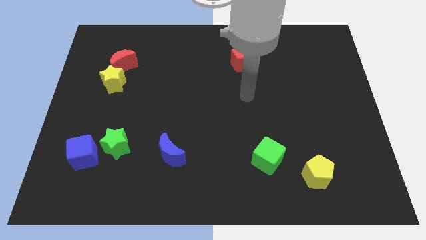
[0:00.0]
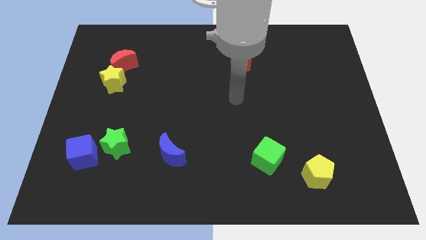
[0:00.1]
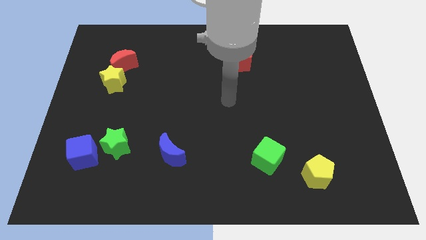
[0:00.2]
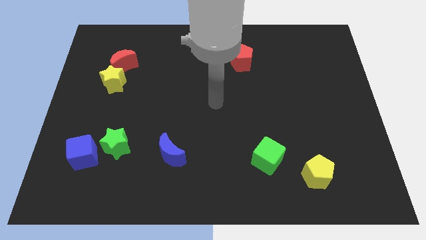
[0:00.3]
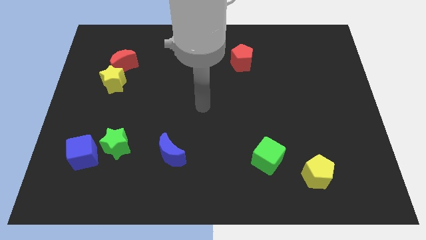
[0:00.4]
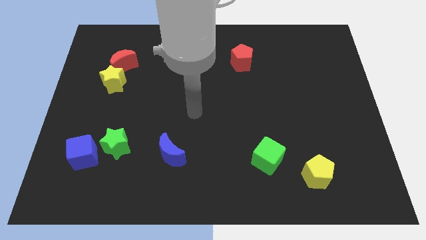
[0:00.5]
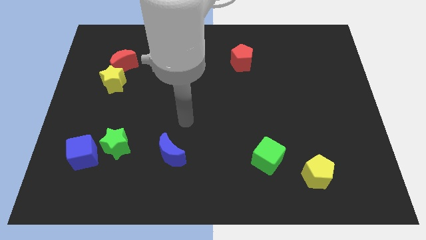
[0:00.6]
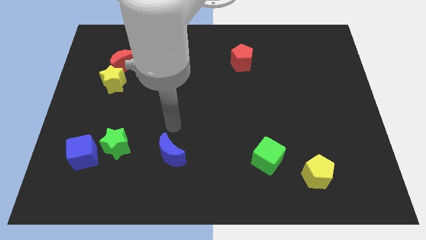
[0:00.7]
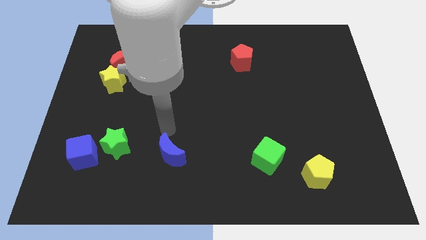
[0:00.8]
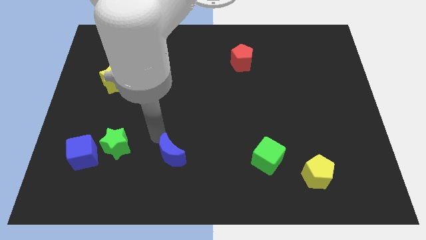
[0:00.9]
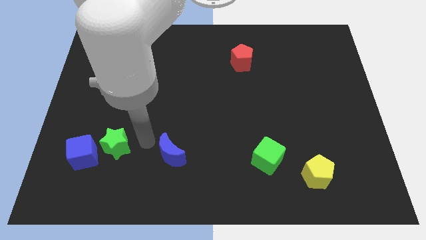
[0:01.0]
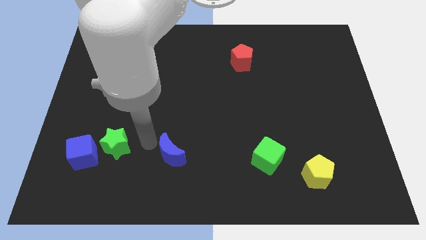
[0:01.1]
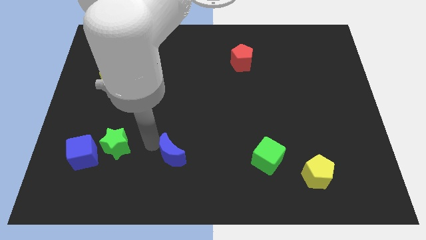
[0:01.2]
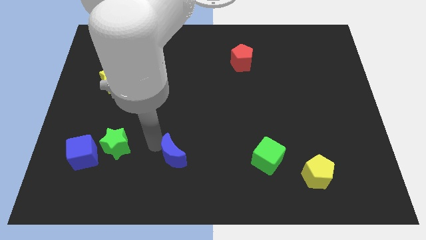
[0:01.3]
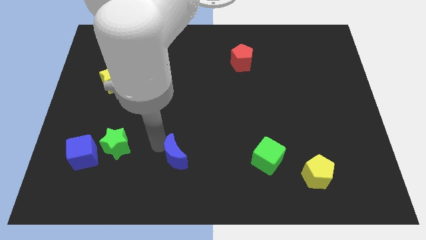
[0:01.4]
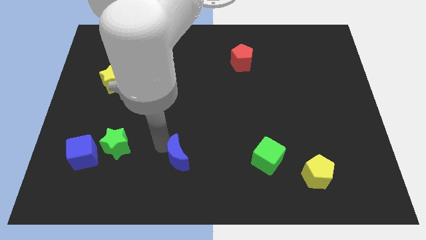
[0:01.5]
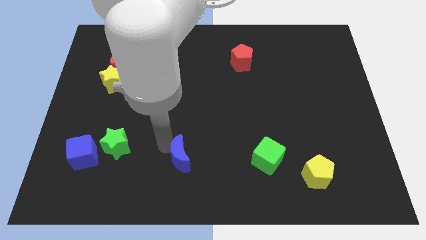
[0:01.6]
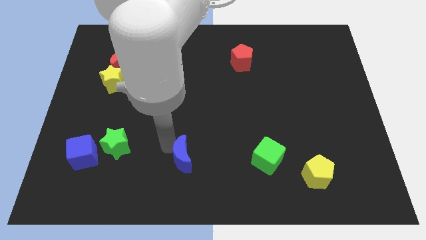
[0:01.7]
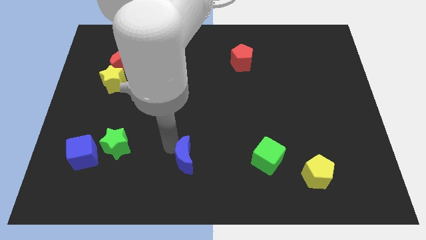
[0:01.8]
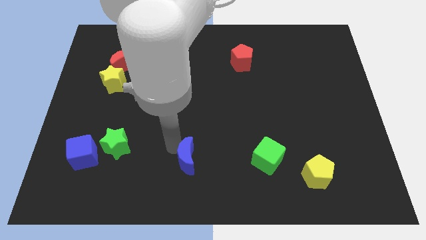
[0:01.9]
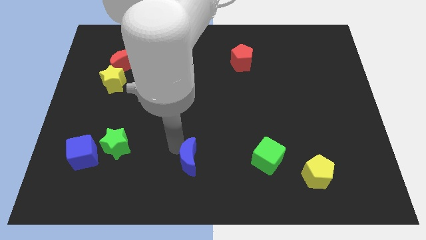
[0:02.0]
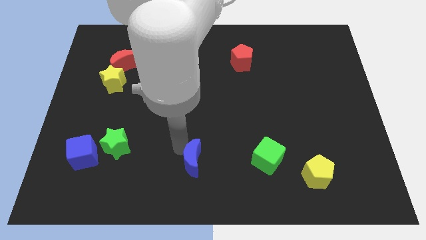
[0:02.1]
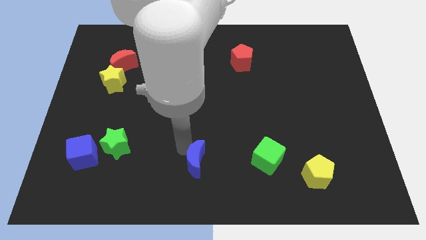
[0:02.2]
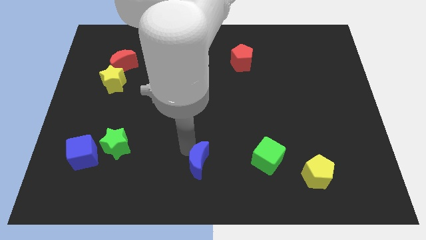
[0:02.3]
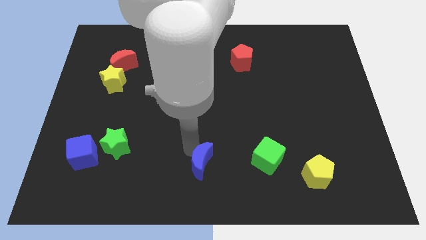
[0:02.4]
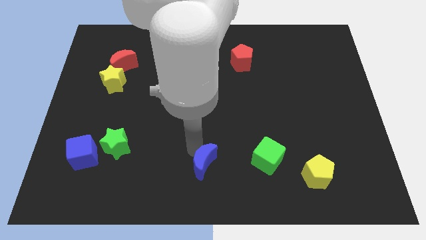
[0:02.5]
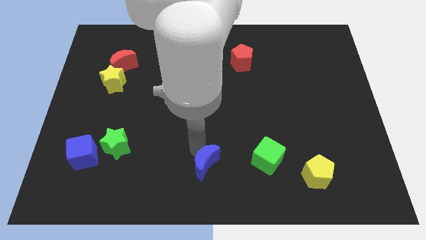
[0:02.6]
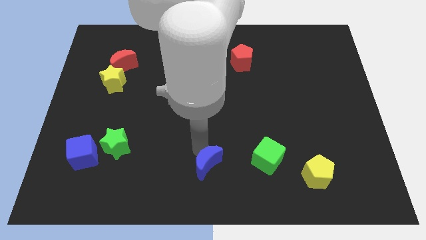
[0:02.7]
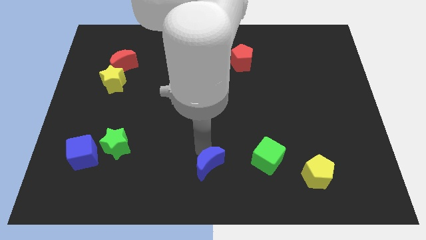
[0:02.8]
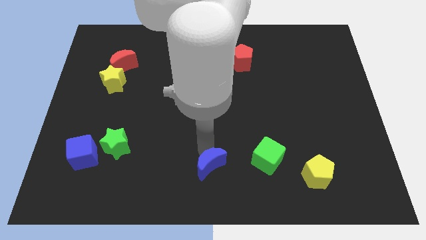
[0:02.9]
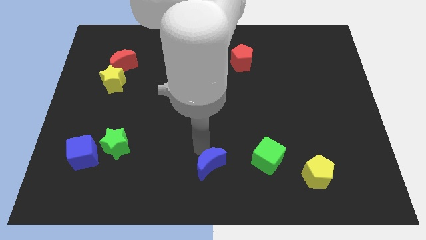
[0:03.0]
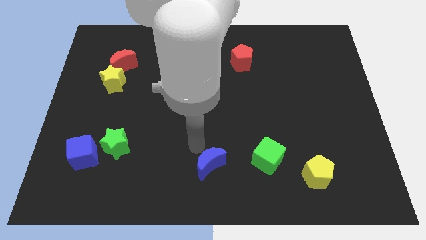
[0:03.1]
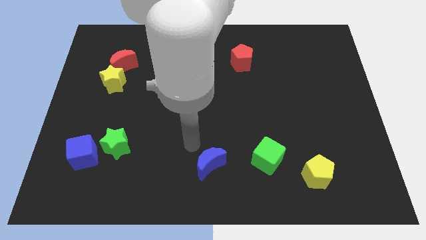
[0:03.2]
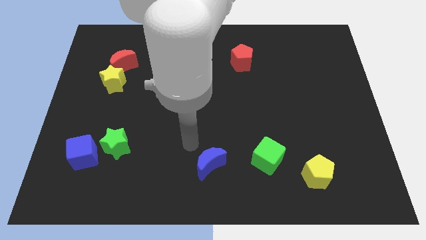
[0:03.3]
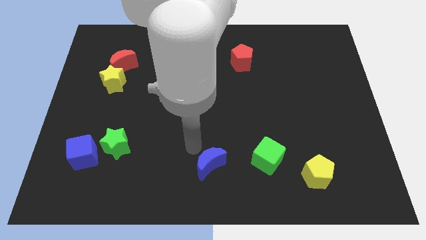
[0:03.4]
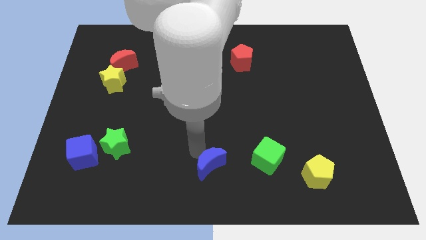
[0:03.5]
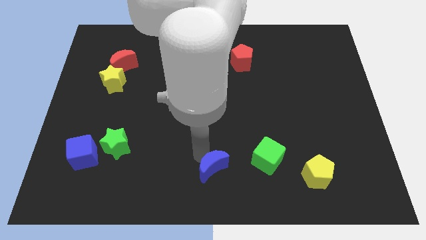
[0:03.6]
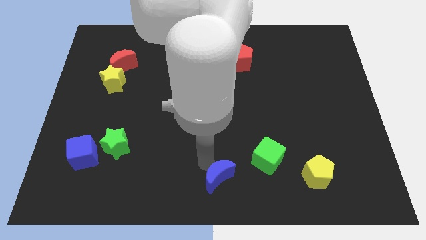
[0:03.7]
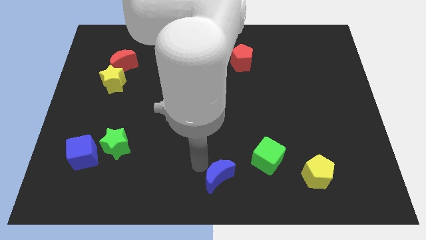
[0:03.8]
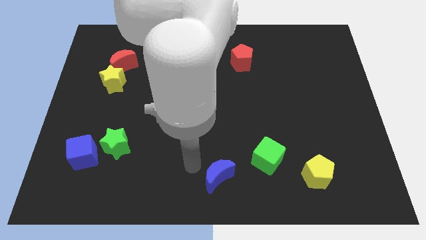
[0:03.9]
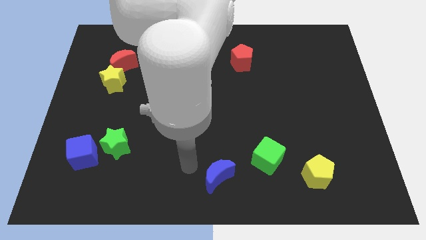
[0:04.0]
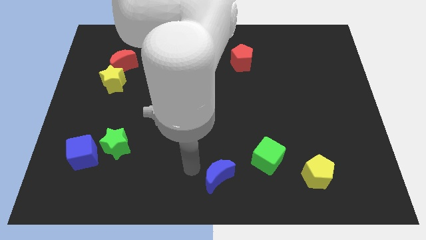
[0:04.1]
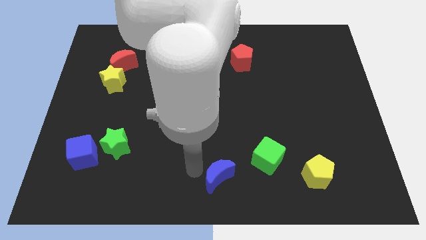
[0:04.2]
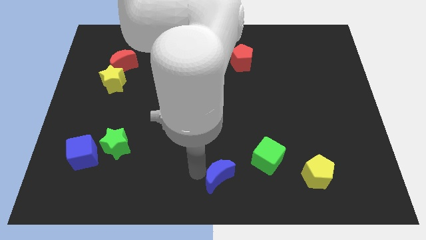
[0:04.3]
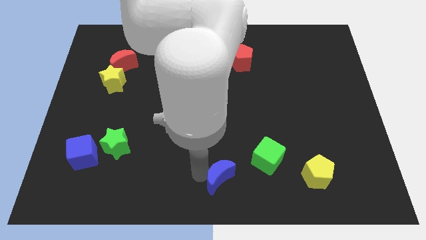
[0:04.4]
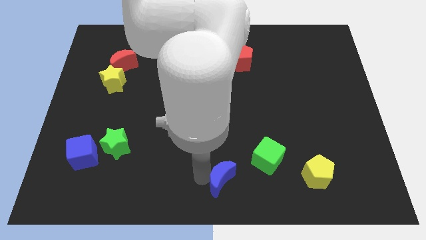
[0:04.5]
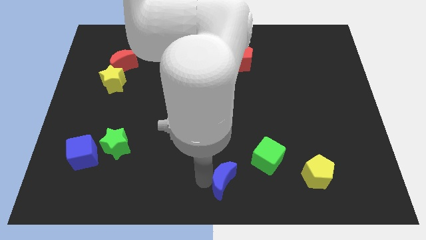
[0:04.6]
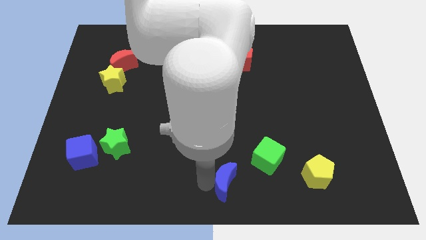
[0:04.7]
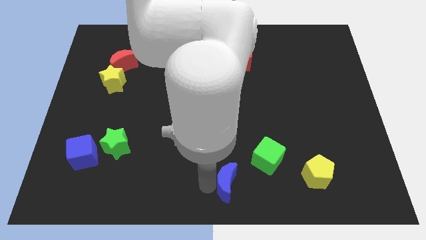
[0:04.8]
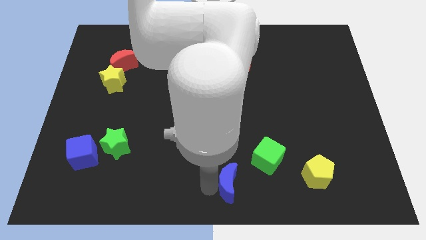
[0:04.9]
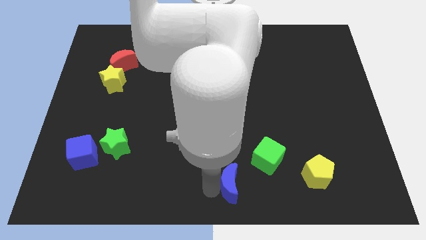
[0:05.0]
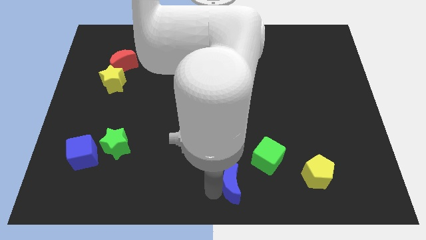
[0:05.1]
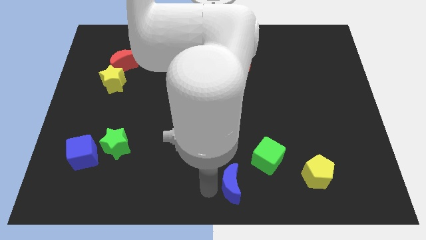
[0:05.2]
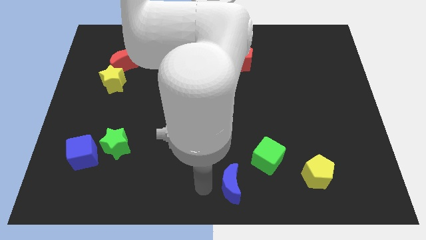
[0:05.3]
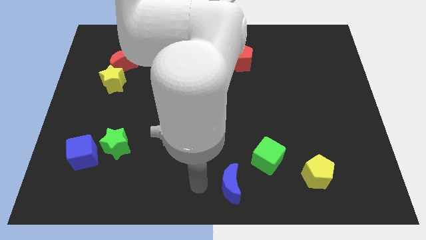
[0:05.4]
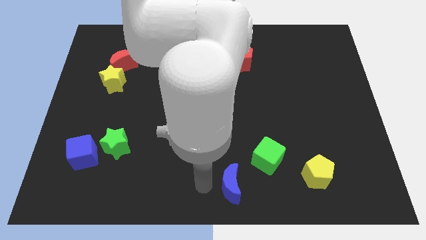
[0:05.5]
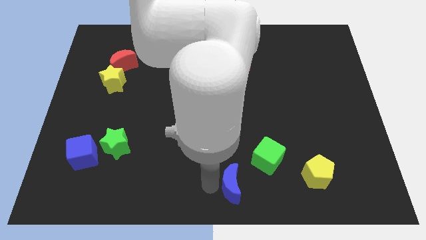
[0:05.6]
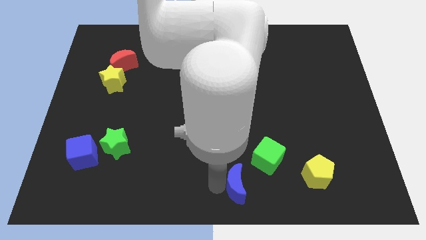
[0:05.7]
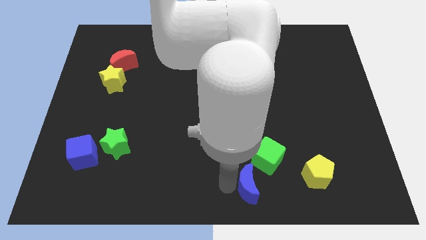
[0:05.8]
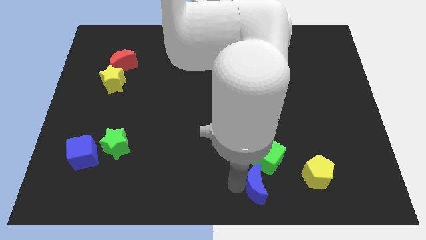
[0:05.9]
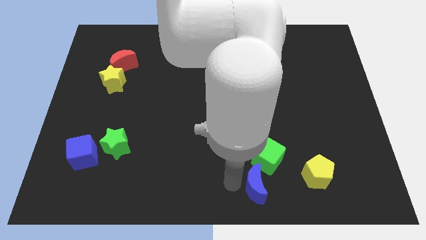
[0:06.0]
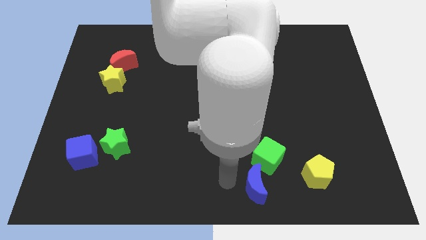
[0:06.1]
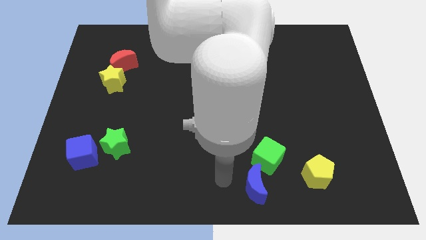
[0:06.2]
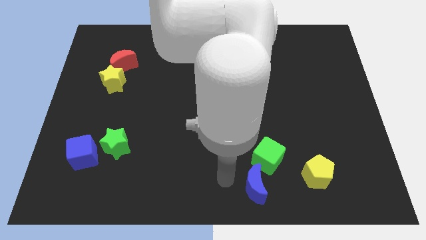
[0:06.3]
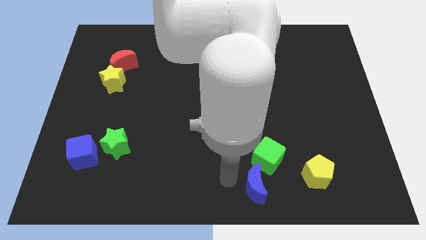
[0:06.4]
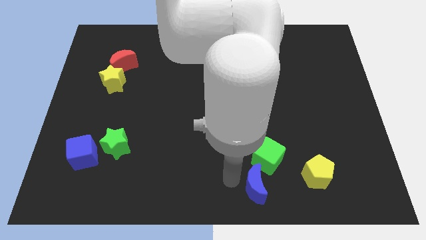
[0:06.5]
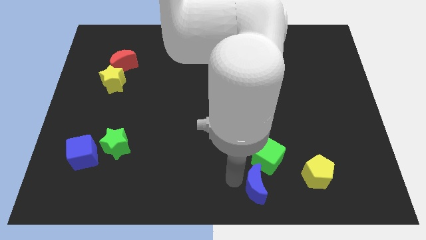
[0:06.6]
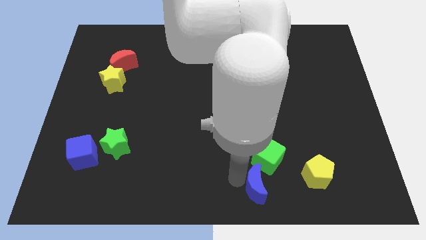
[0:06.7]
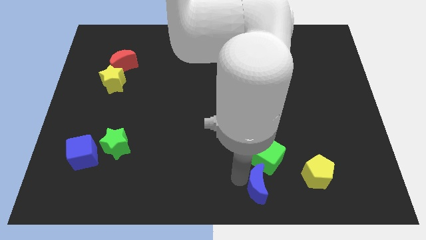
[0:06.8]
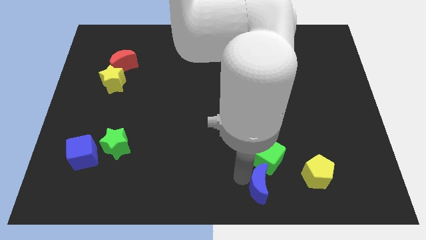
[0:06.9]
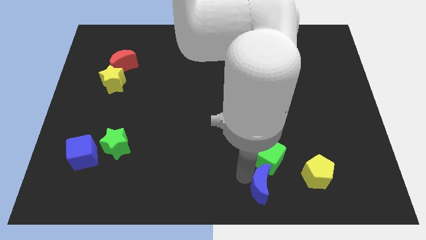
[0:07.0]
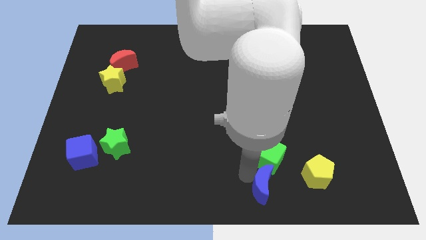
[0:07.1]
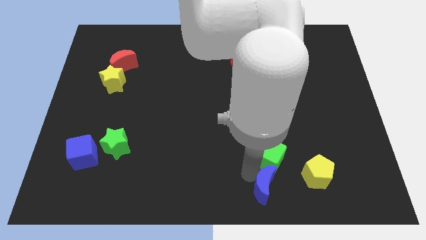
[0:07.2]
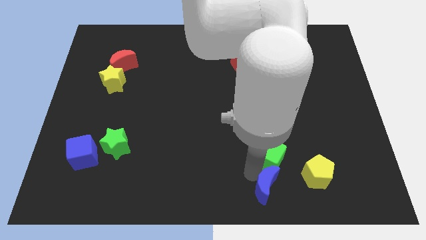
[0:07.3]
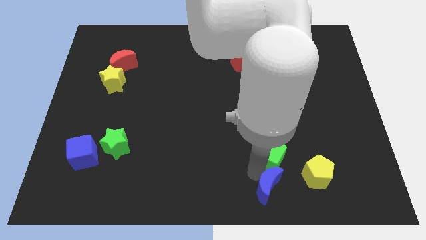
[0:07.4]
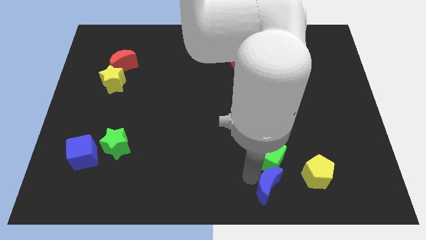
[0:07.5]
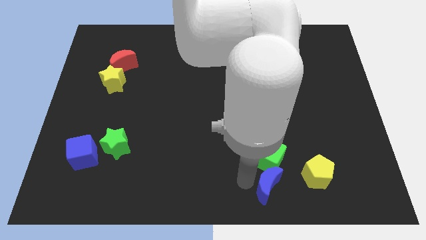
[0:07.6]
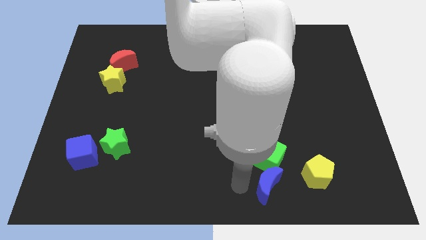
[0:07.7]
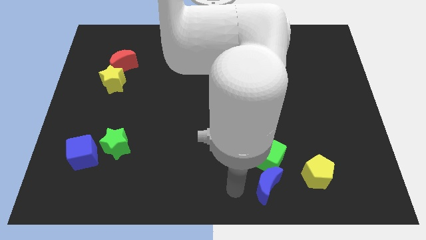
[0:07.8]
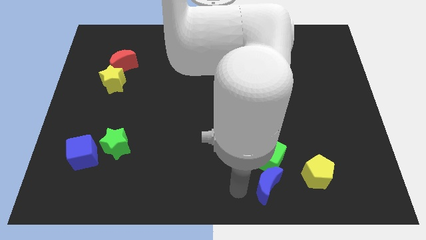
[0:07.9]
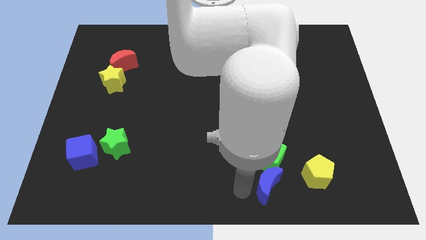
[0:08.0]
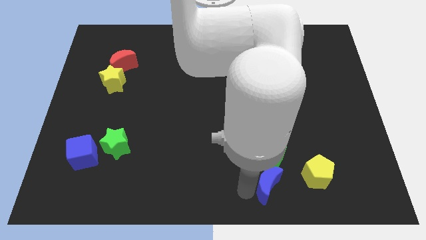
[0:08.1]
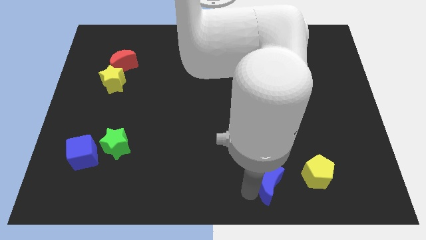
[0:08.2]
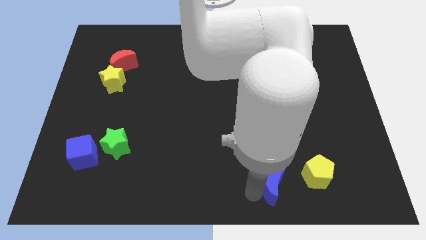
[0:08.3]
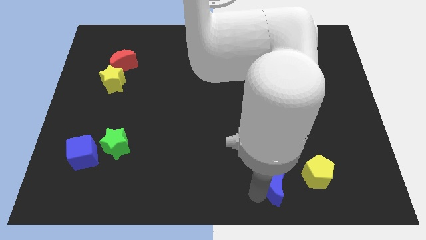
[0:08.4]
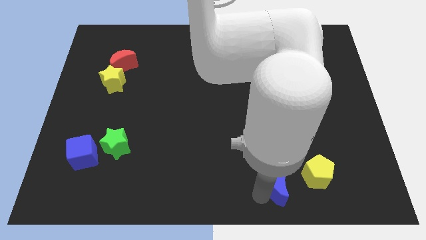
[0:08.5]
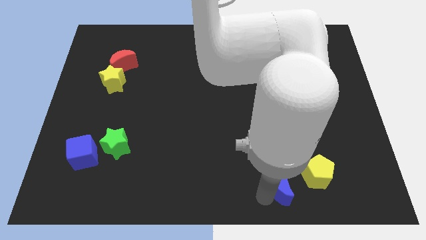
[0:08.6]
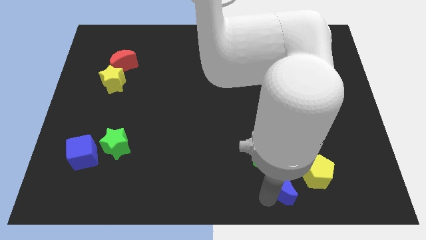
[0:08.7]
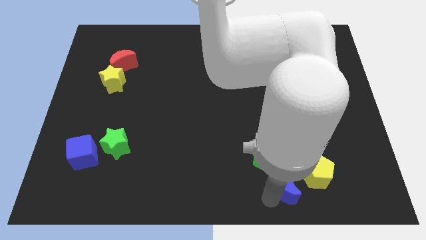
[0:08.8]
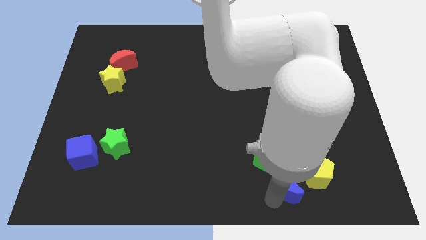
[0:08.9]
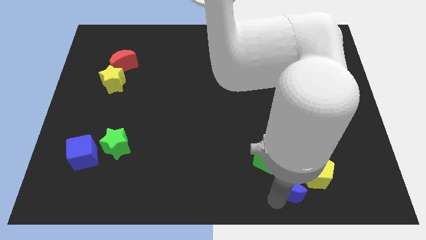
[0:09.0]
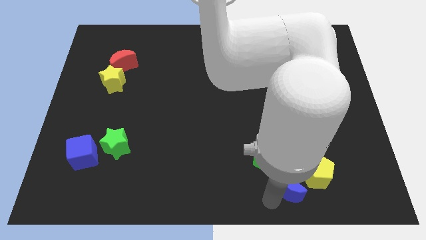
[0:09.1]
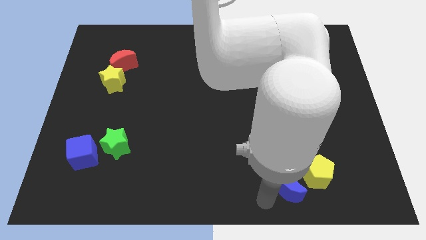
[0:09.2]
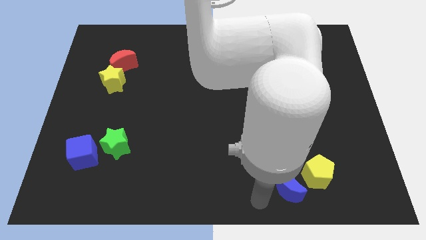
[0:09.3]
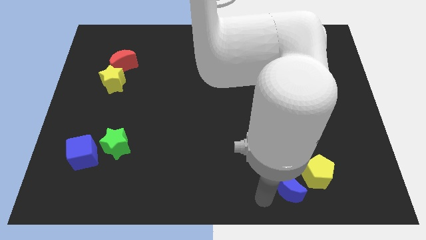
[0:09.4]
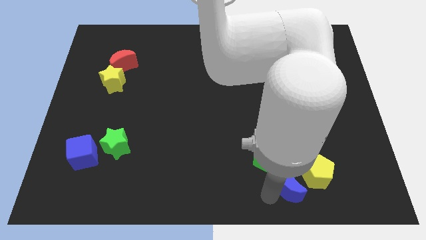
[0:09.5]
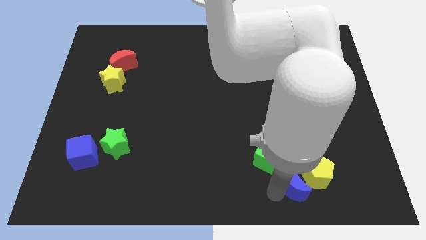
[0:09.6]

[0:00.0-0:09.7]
slide the blue moon to the yellow pentagon
